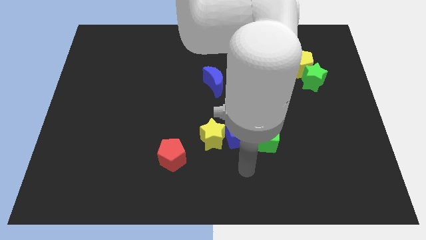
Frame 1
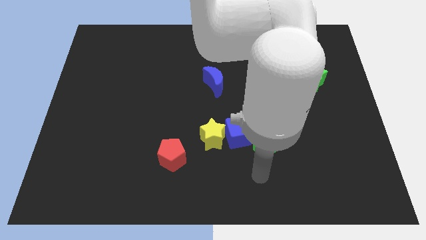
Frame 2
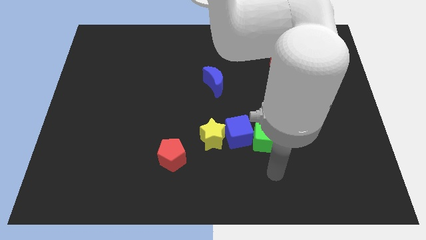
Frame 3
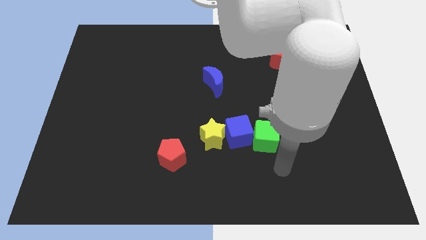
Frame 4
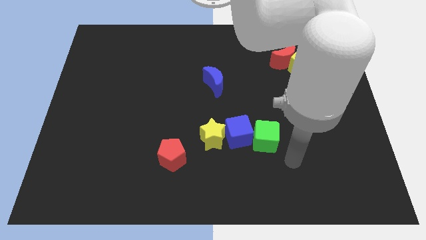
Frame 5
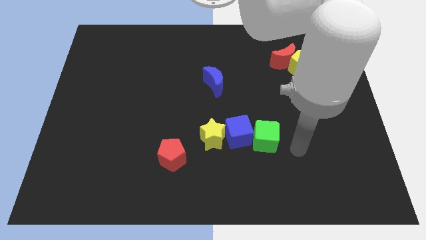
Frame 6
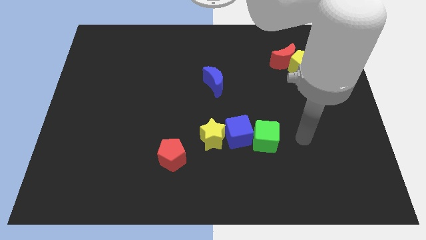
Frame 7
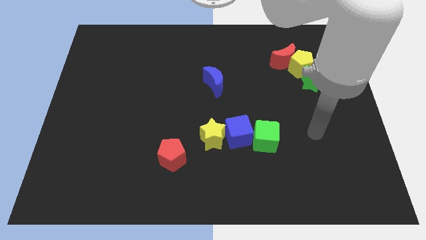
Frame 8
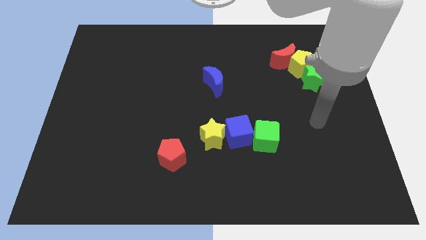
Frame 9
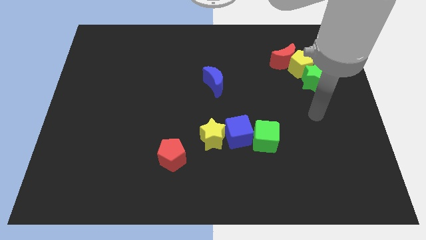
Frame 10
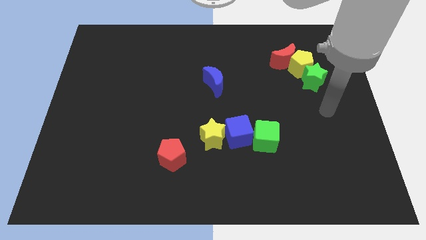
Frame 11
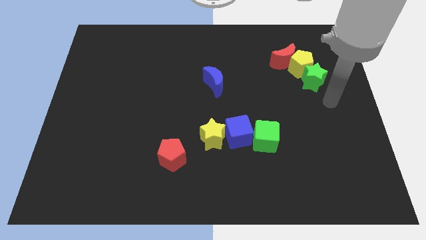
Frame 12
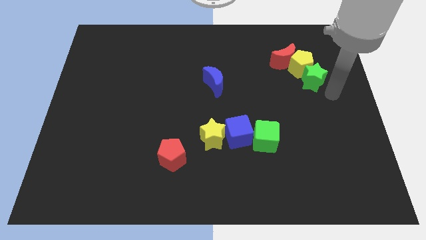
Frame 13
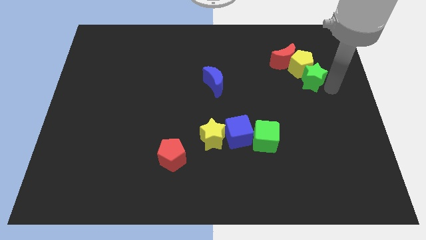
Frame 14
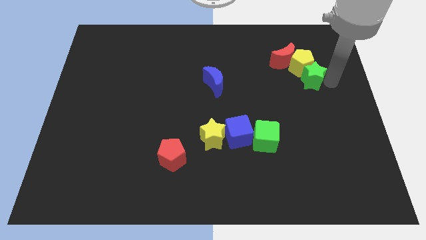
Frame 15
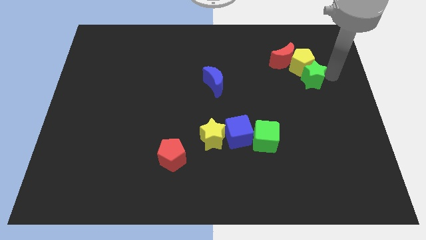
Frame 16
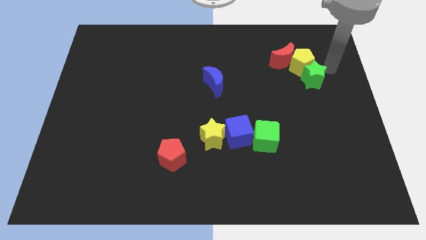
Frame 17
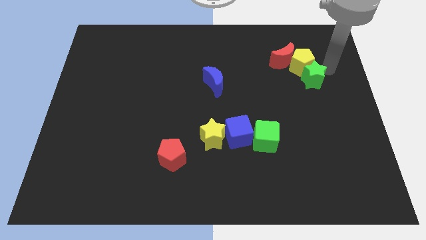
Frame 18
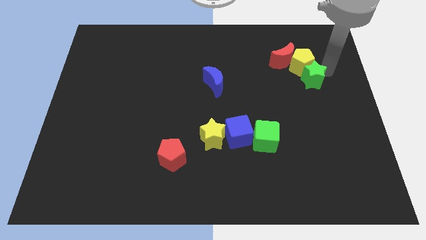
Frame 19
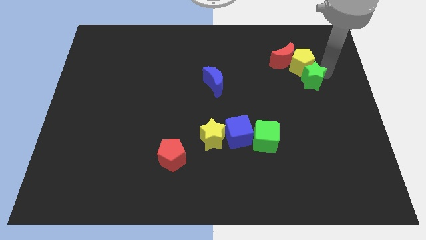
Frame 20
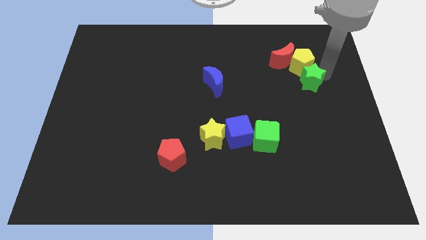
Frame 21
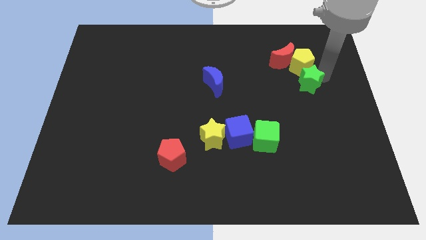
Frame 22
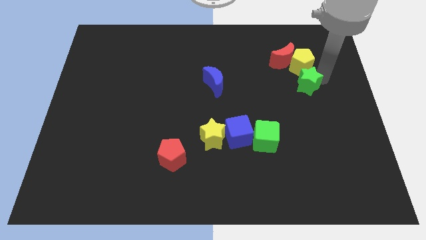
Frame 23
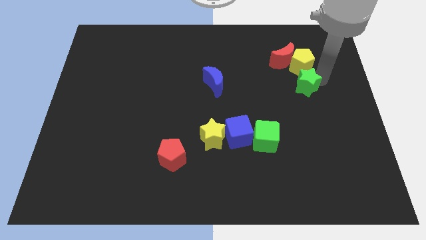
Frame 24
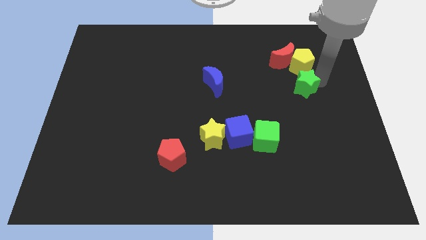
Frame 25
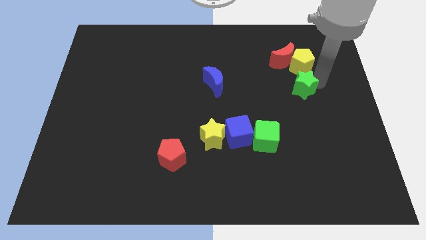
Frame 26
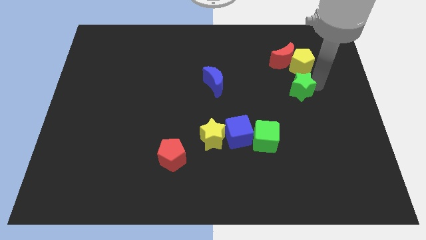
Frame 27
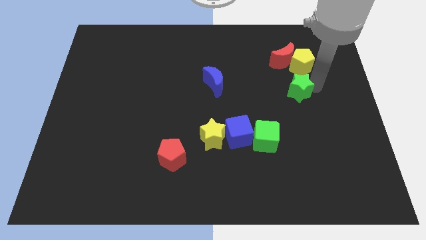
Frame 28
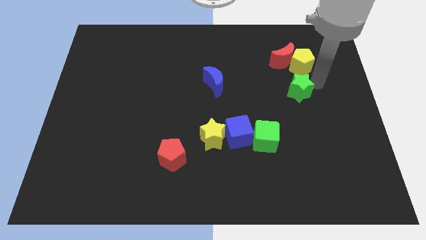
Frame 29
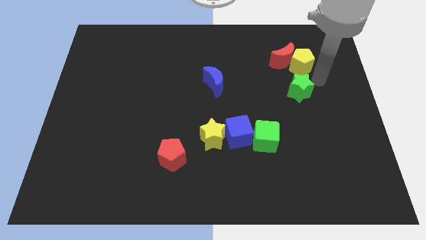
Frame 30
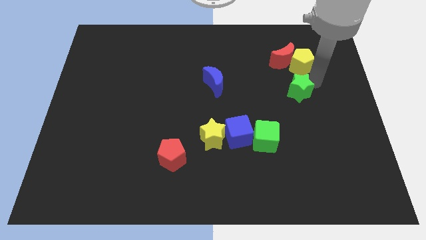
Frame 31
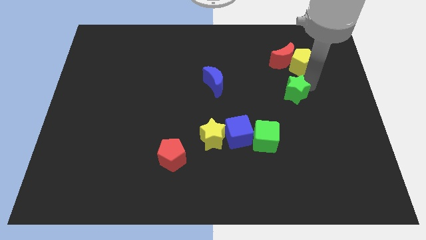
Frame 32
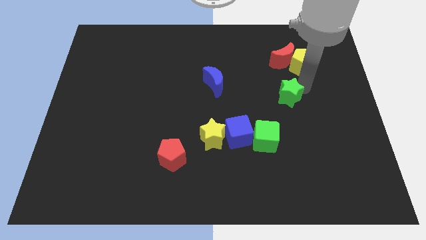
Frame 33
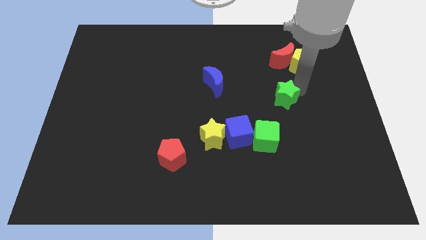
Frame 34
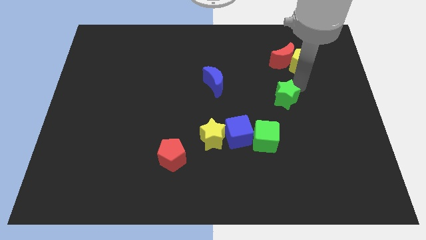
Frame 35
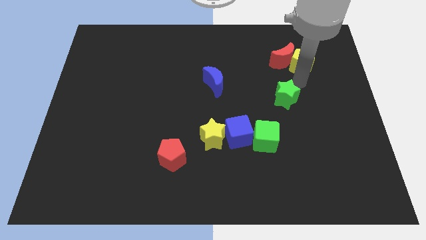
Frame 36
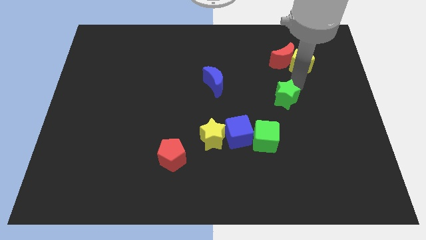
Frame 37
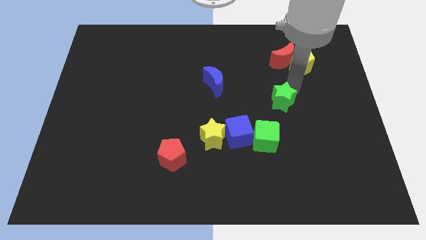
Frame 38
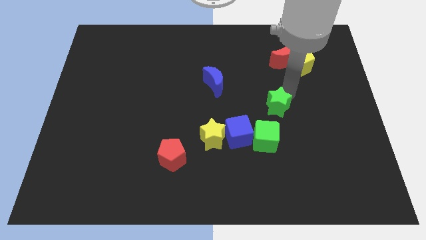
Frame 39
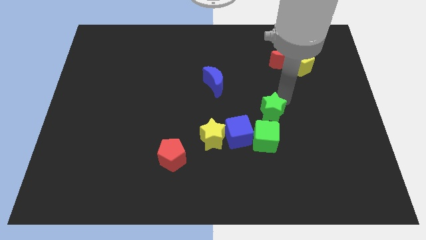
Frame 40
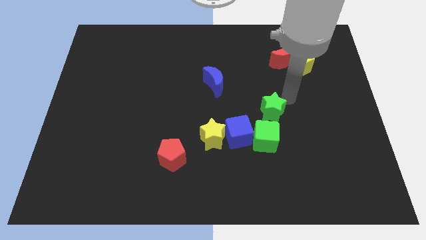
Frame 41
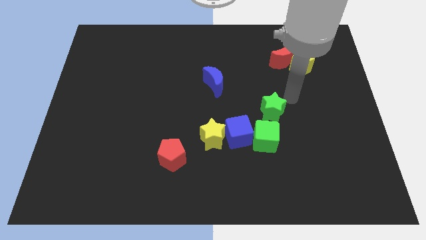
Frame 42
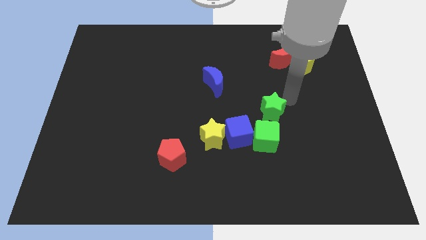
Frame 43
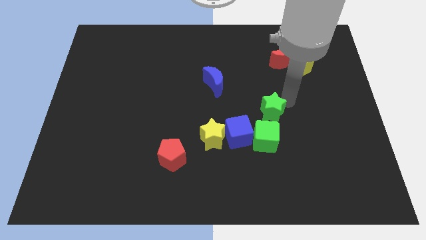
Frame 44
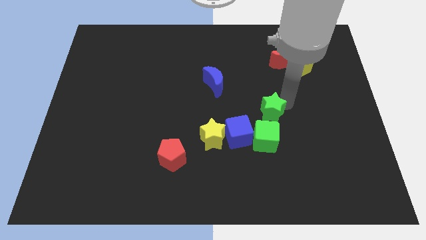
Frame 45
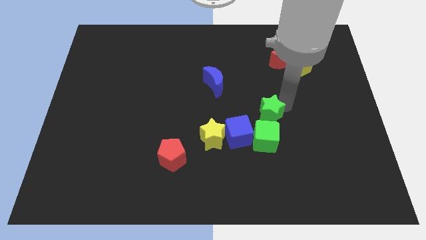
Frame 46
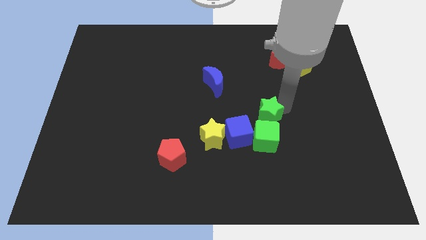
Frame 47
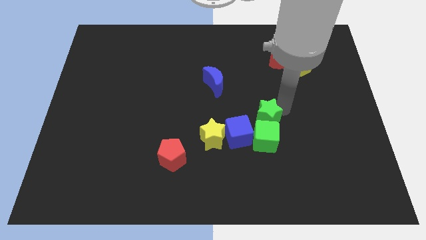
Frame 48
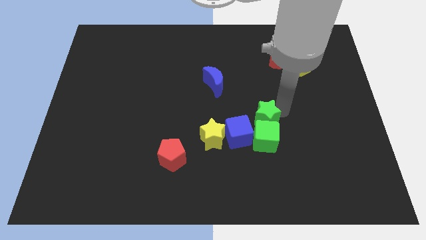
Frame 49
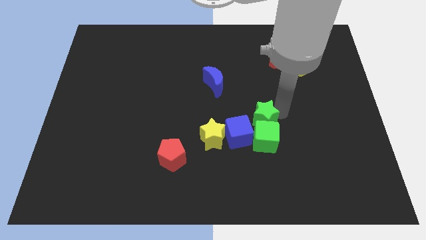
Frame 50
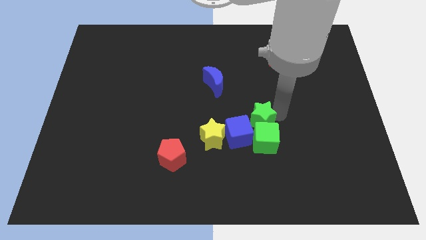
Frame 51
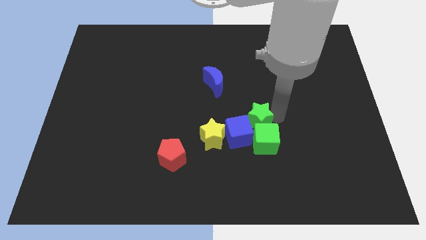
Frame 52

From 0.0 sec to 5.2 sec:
push the green star towards the blue cube

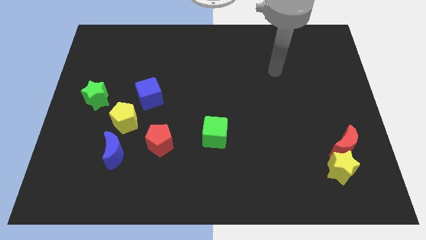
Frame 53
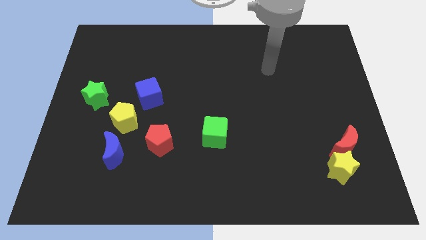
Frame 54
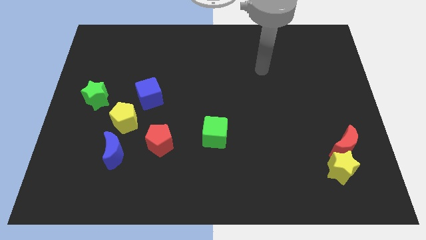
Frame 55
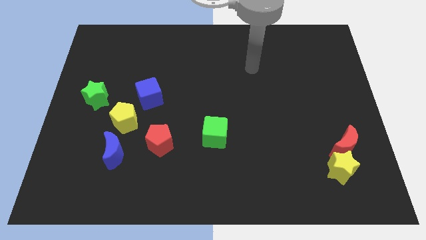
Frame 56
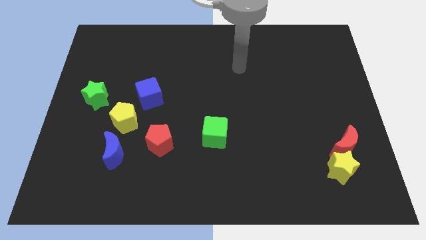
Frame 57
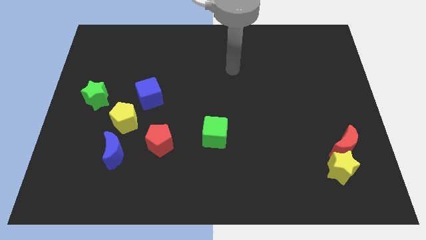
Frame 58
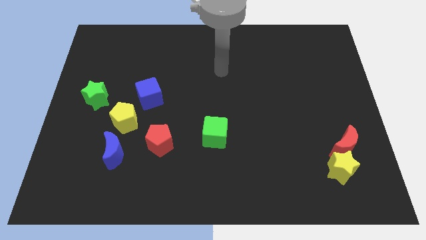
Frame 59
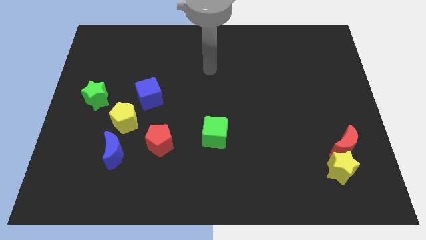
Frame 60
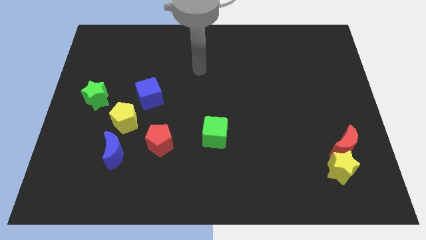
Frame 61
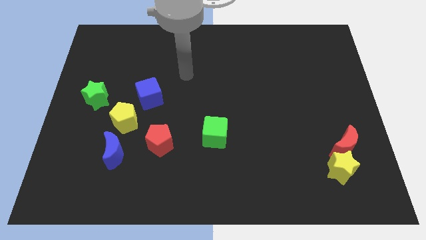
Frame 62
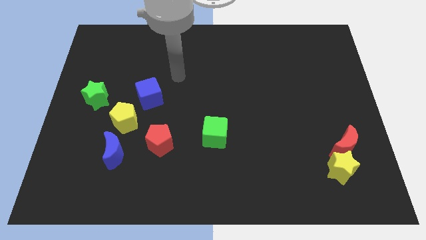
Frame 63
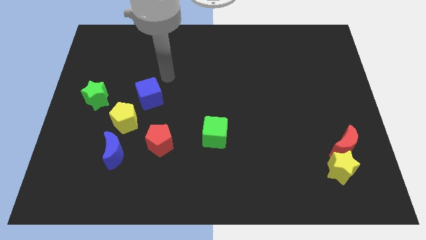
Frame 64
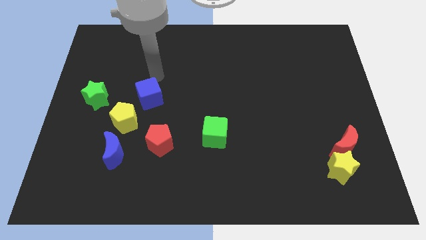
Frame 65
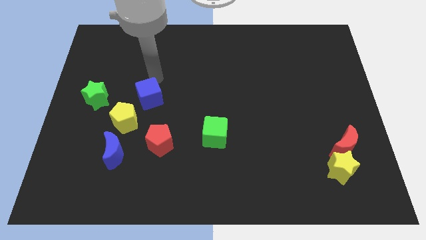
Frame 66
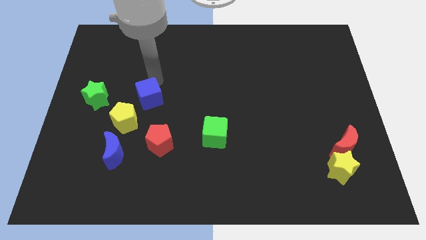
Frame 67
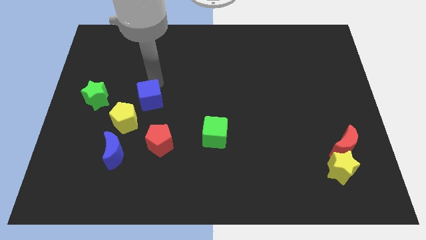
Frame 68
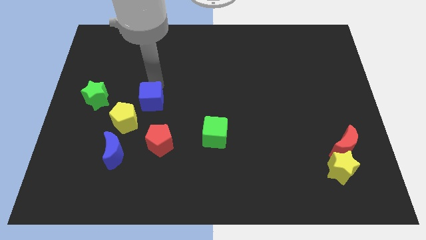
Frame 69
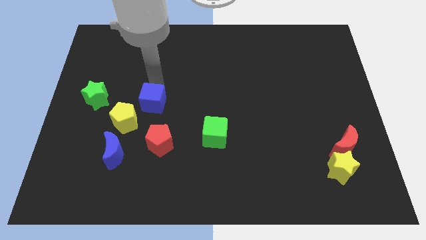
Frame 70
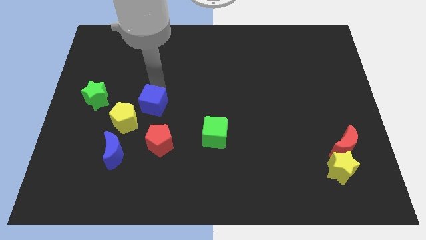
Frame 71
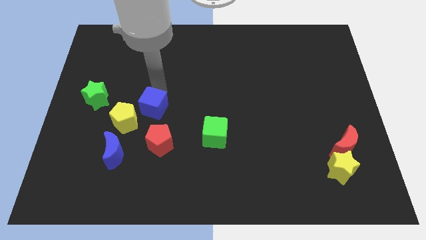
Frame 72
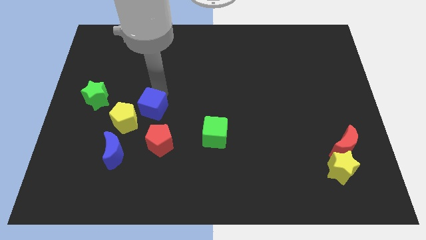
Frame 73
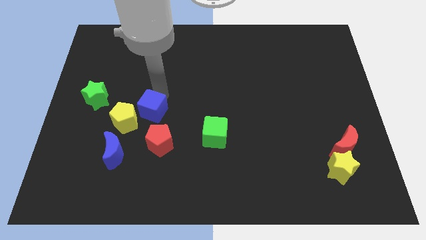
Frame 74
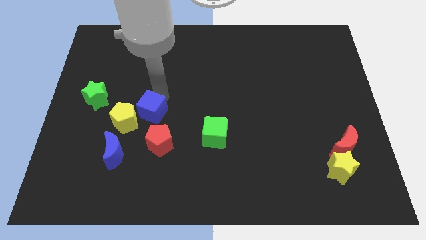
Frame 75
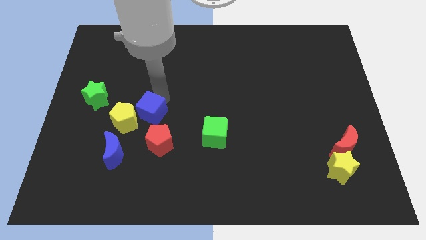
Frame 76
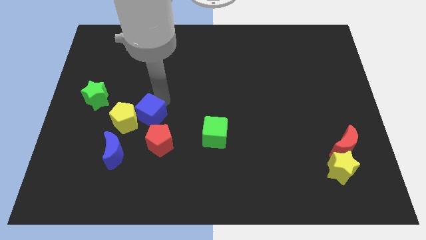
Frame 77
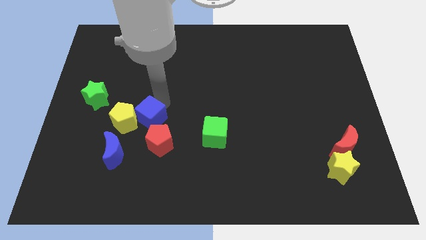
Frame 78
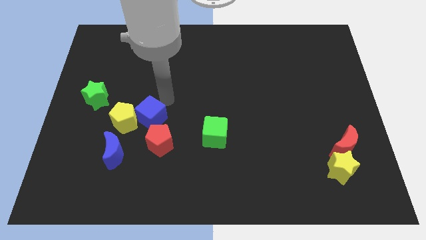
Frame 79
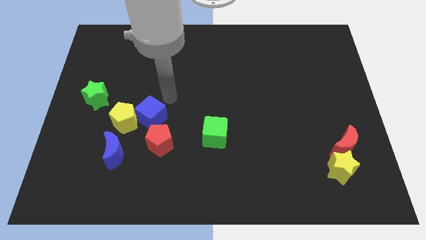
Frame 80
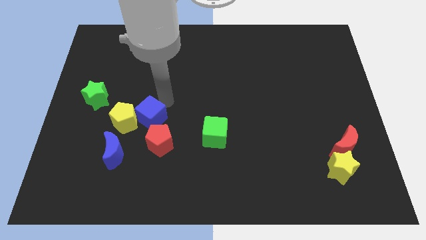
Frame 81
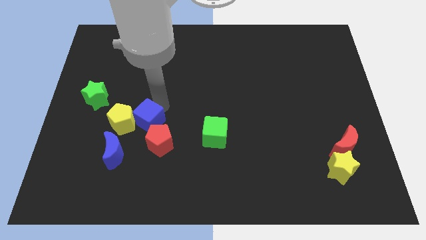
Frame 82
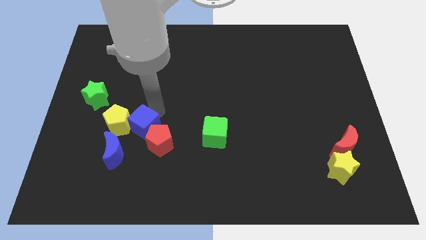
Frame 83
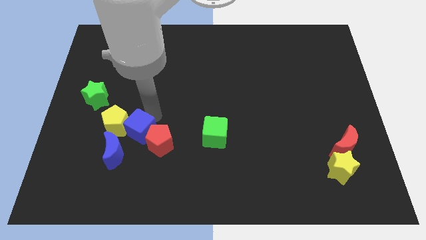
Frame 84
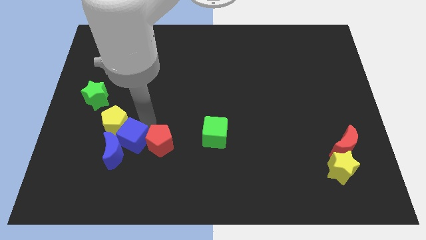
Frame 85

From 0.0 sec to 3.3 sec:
slide the blue cube to the blue moon
